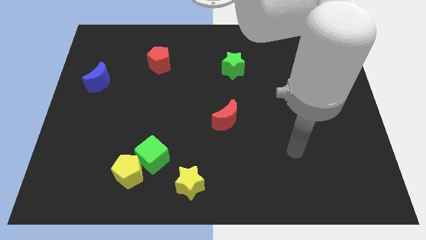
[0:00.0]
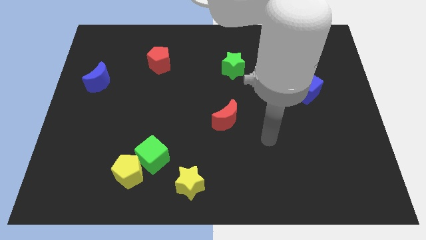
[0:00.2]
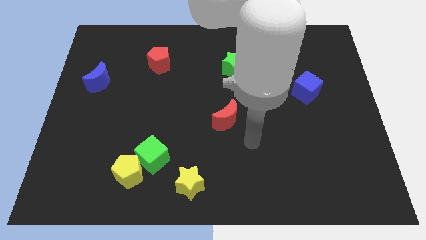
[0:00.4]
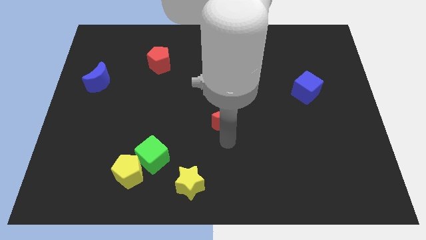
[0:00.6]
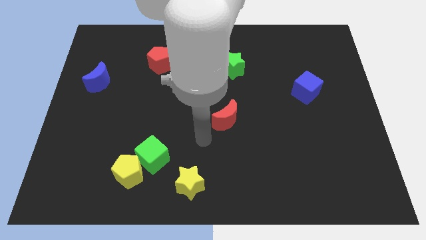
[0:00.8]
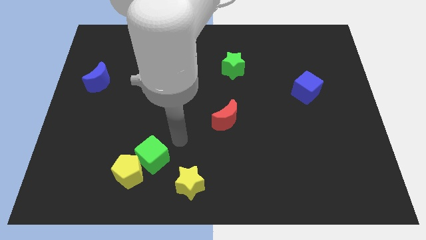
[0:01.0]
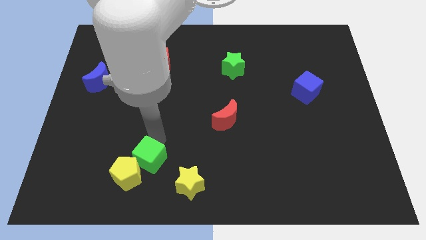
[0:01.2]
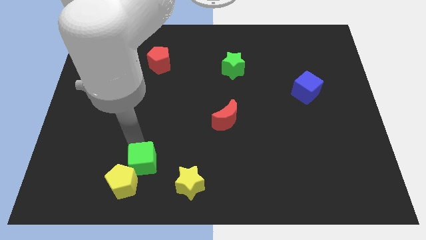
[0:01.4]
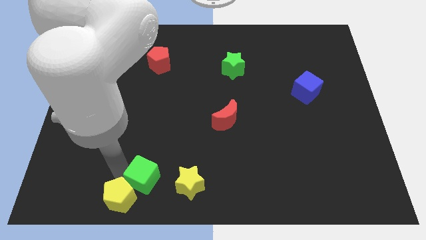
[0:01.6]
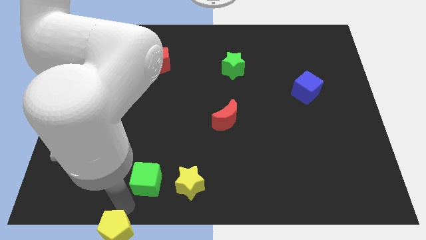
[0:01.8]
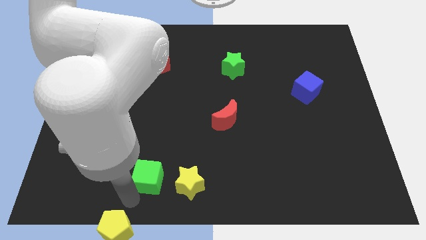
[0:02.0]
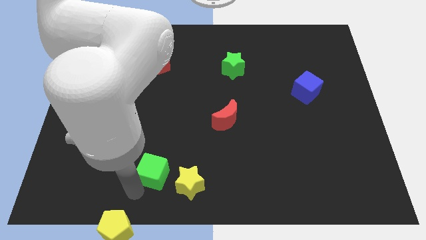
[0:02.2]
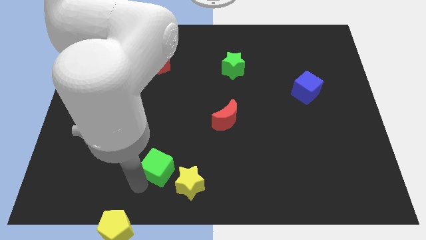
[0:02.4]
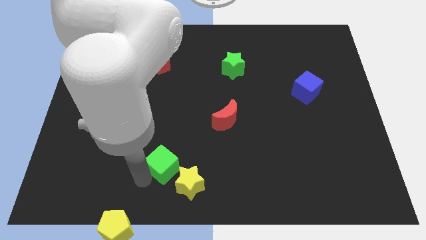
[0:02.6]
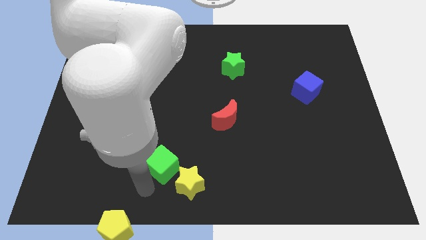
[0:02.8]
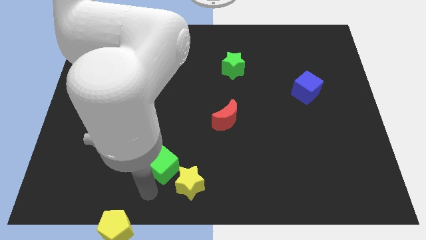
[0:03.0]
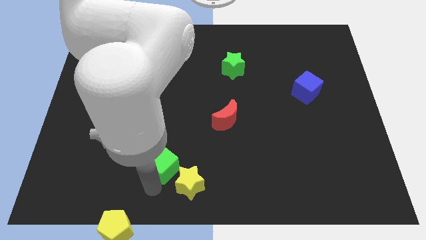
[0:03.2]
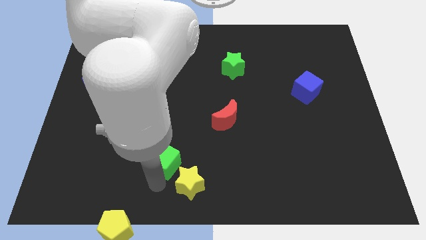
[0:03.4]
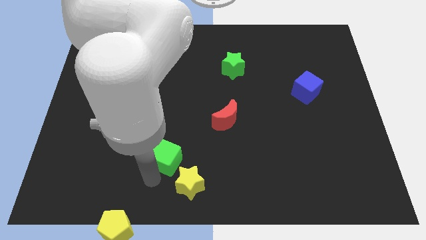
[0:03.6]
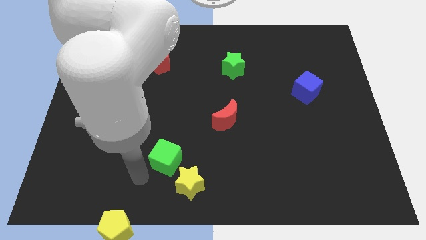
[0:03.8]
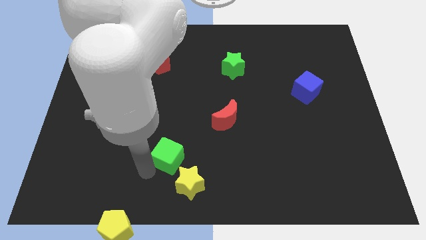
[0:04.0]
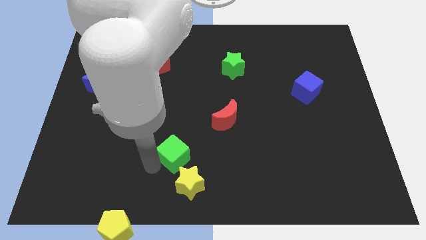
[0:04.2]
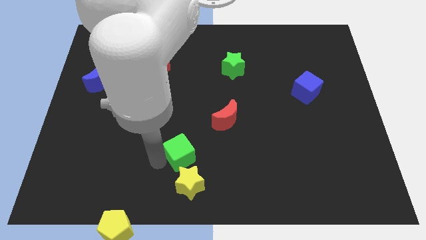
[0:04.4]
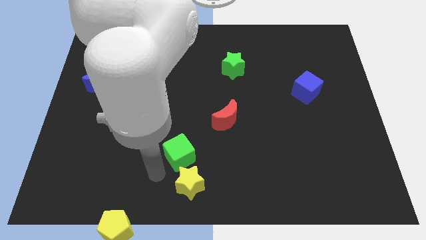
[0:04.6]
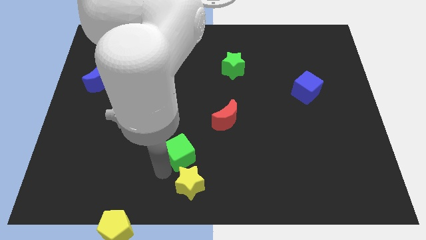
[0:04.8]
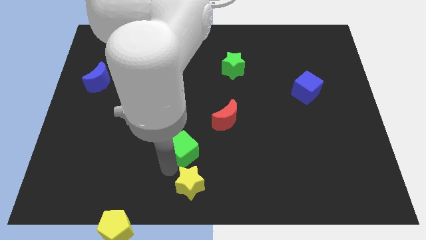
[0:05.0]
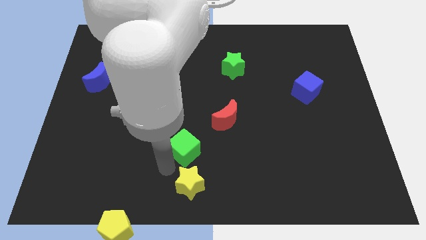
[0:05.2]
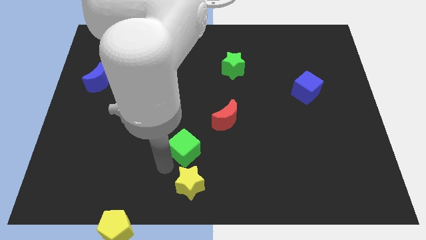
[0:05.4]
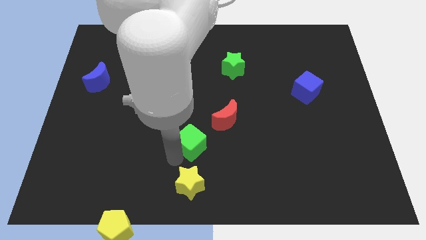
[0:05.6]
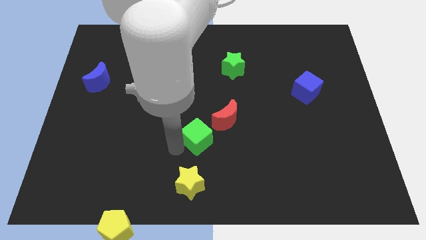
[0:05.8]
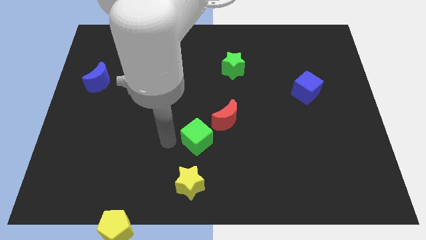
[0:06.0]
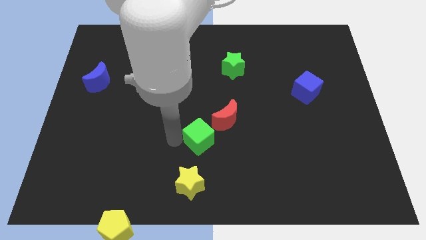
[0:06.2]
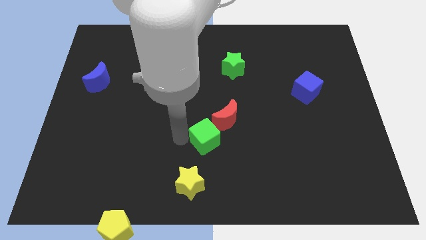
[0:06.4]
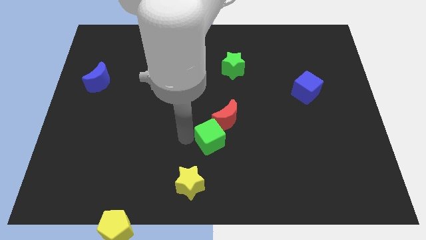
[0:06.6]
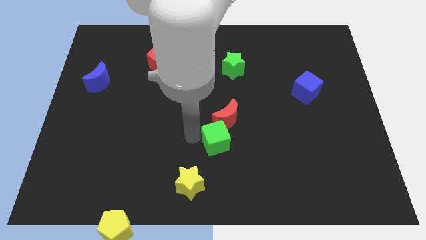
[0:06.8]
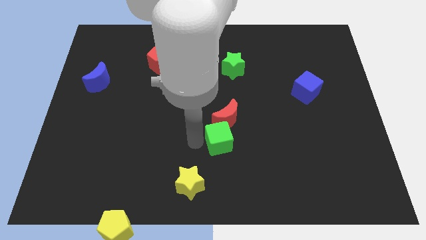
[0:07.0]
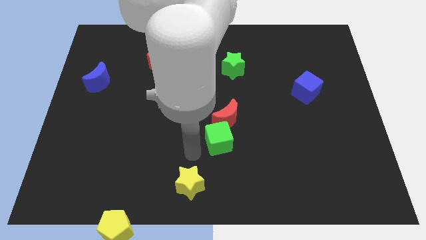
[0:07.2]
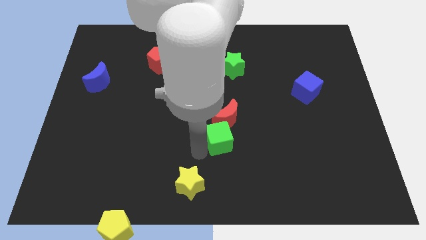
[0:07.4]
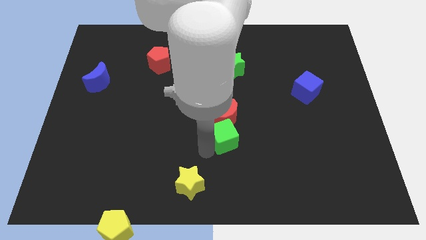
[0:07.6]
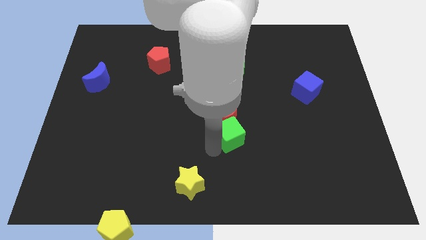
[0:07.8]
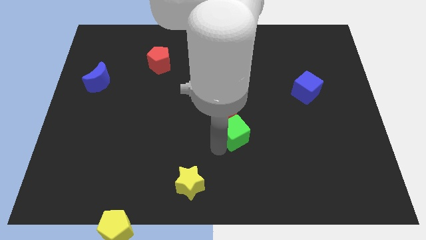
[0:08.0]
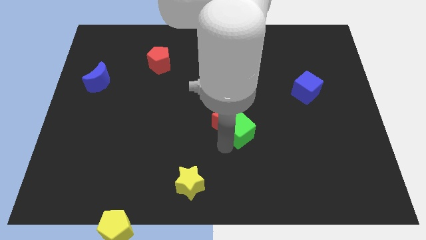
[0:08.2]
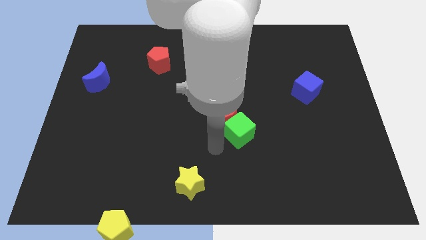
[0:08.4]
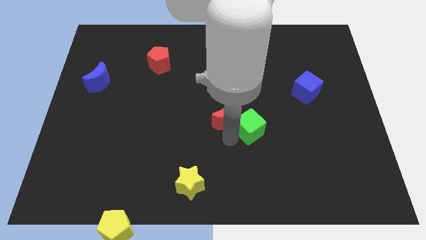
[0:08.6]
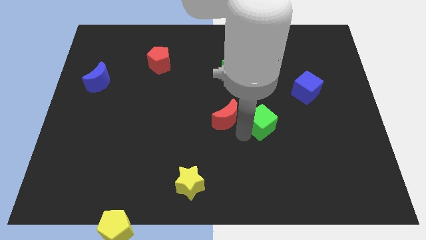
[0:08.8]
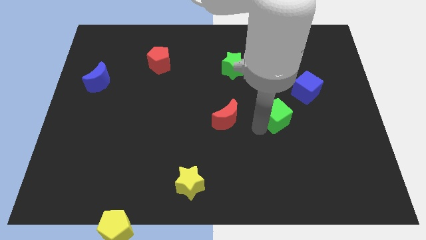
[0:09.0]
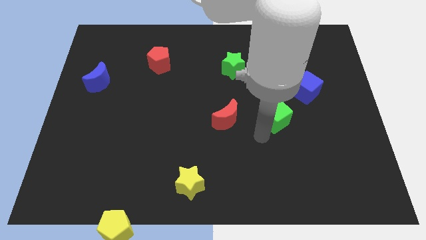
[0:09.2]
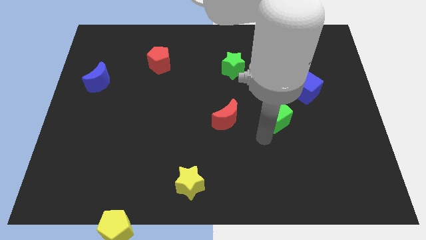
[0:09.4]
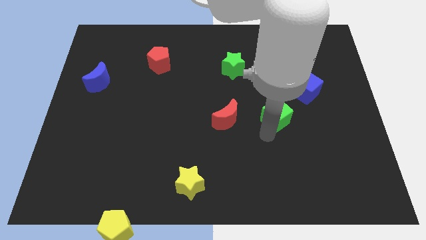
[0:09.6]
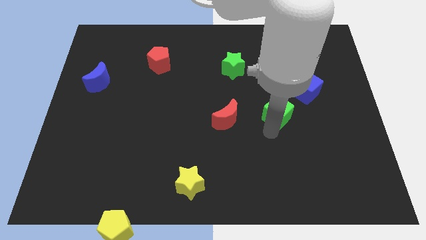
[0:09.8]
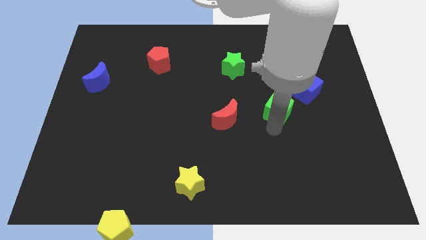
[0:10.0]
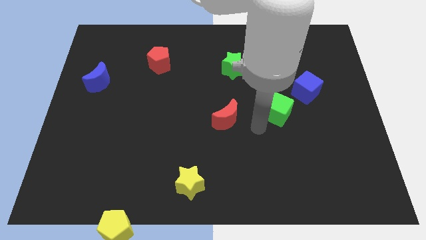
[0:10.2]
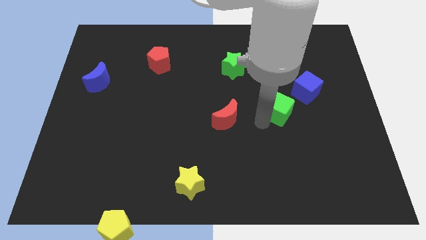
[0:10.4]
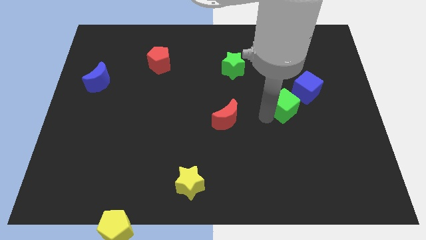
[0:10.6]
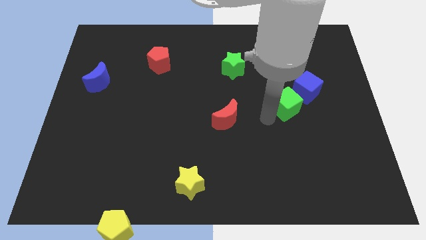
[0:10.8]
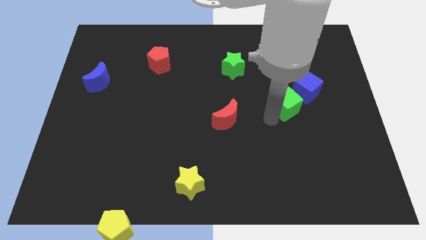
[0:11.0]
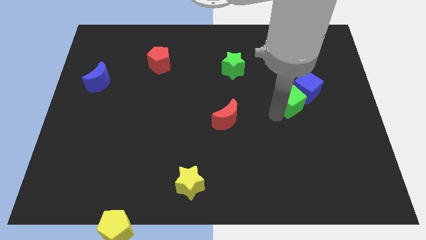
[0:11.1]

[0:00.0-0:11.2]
slide the green cube close to the blue cube

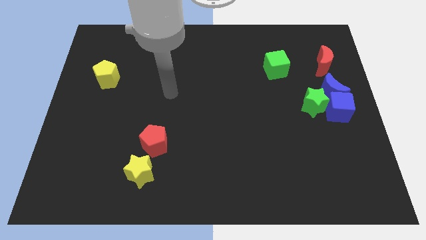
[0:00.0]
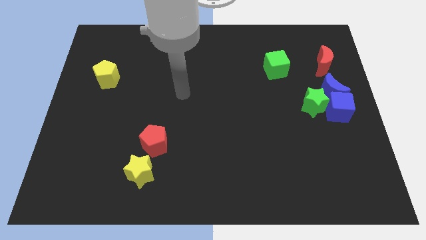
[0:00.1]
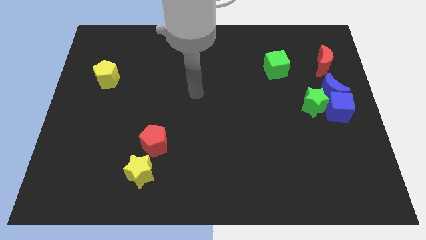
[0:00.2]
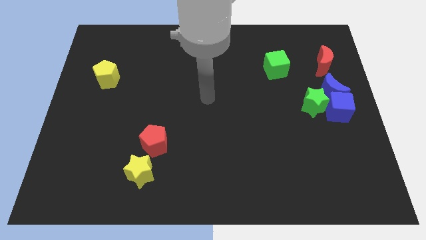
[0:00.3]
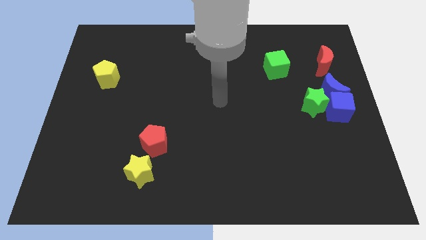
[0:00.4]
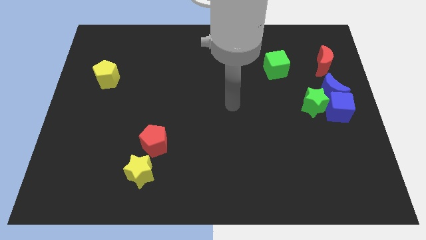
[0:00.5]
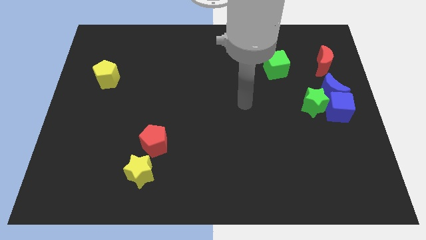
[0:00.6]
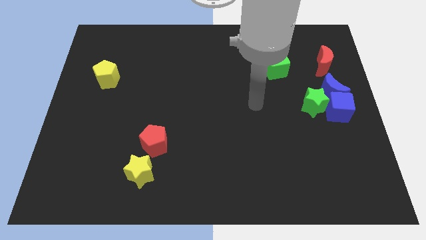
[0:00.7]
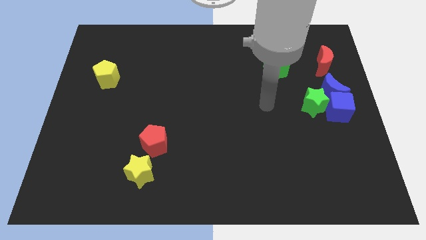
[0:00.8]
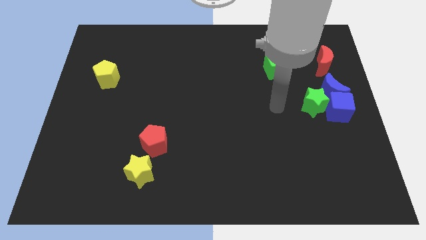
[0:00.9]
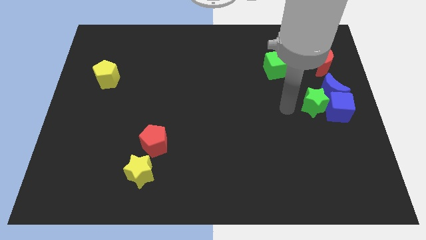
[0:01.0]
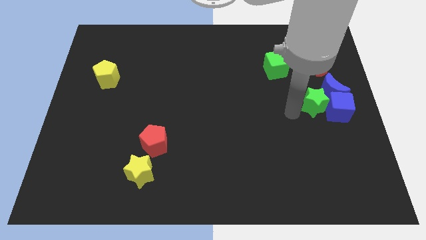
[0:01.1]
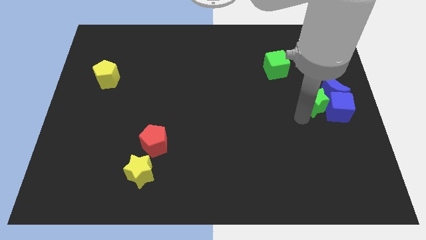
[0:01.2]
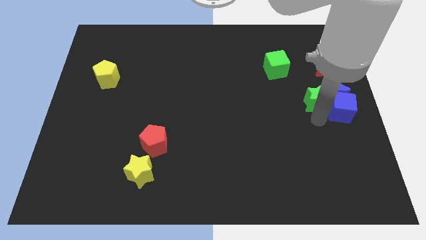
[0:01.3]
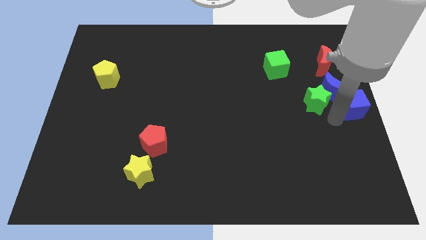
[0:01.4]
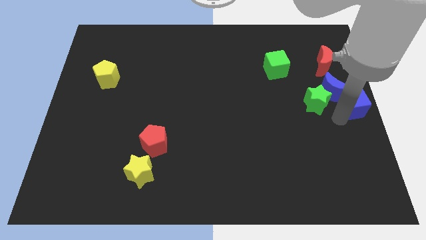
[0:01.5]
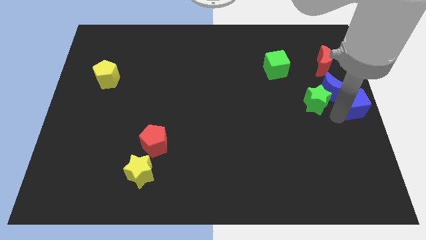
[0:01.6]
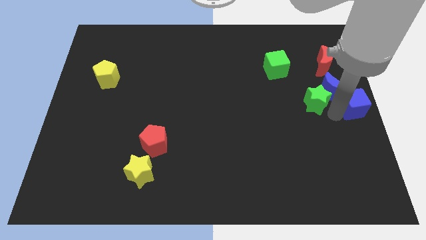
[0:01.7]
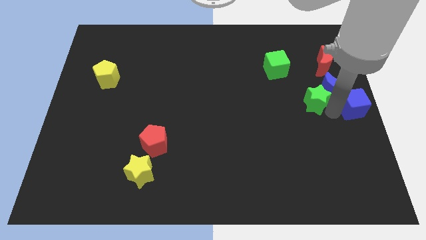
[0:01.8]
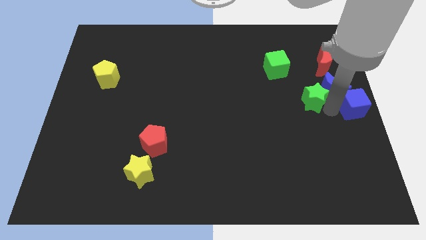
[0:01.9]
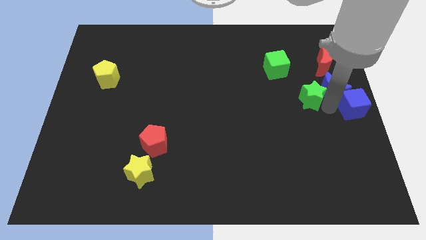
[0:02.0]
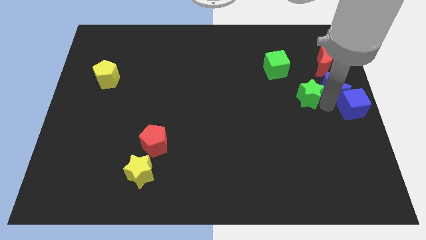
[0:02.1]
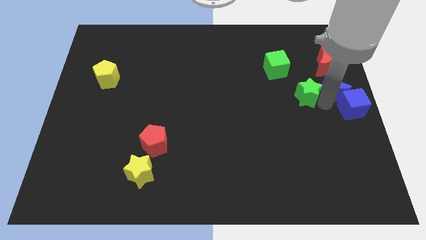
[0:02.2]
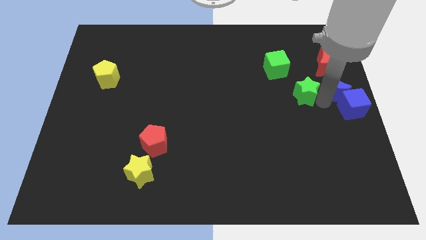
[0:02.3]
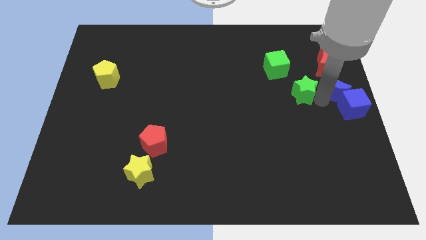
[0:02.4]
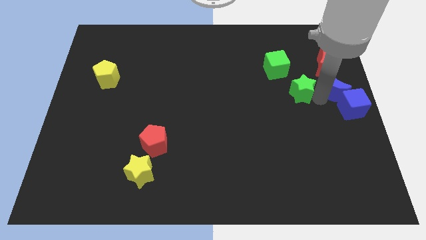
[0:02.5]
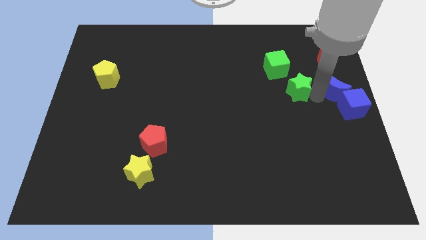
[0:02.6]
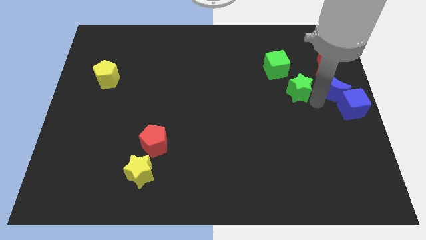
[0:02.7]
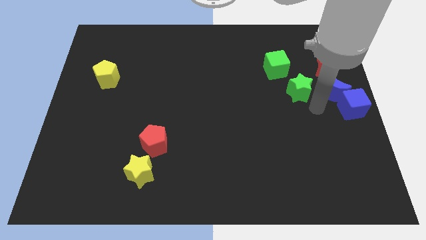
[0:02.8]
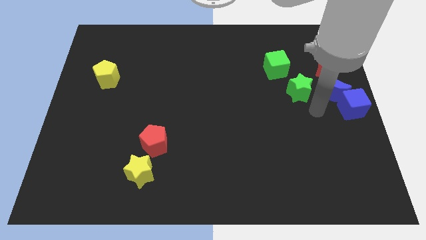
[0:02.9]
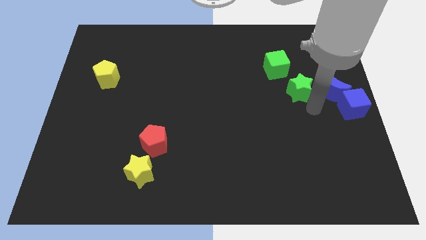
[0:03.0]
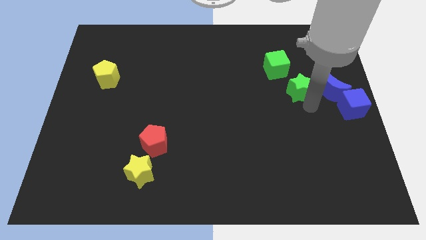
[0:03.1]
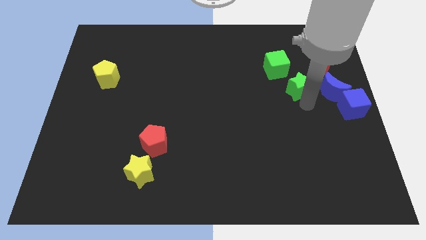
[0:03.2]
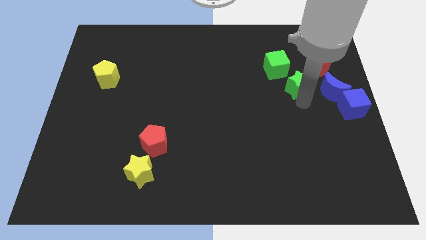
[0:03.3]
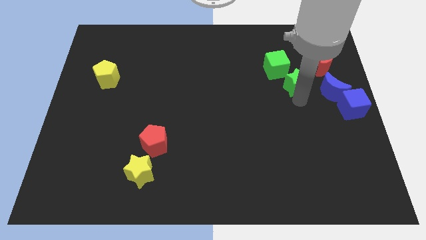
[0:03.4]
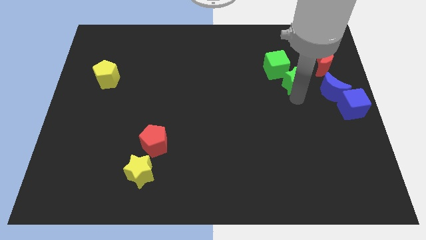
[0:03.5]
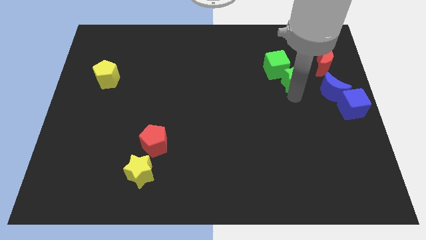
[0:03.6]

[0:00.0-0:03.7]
move the green star next to the green cube
